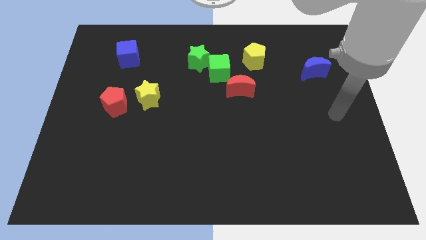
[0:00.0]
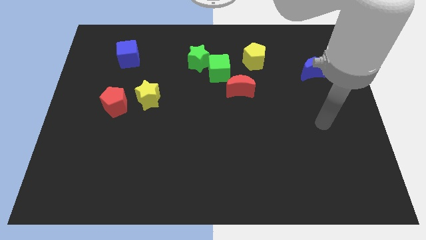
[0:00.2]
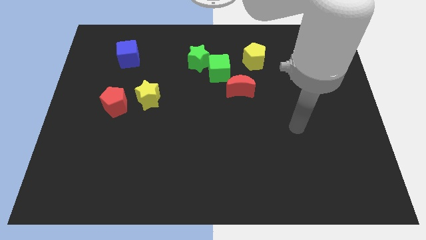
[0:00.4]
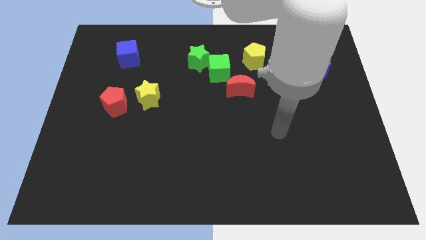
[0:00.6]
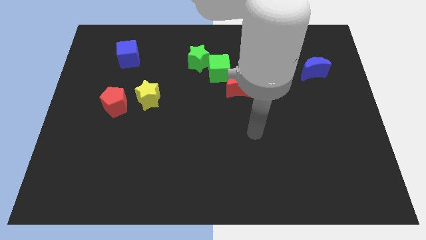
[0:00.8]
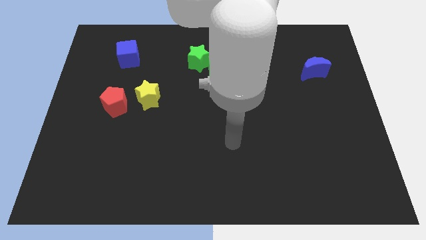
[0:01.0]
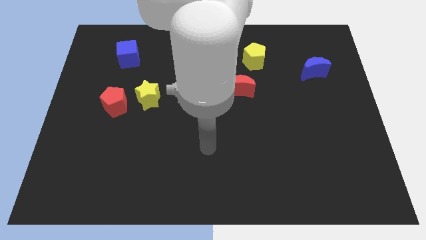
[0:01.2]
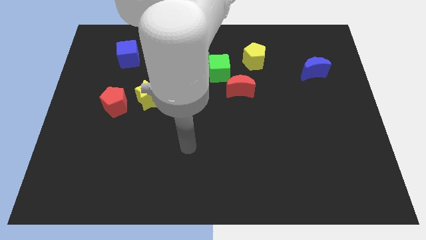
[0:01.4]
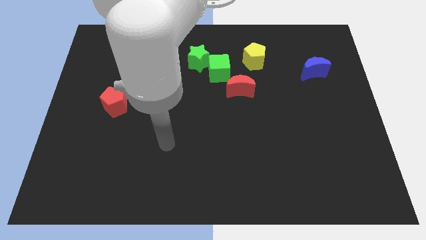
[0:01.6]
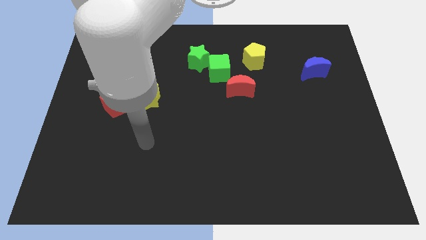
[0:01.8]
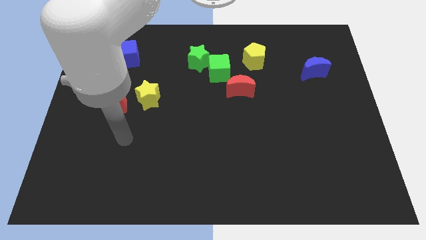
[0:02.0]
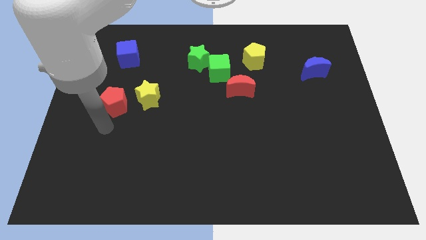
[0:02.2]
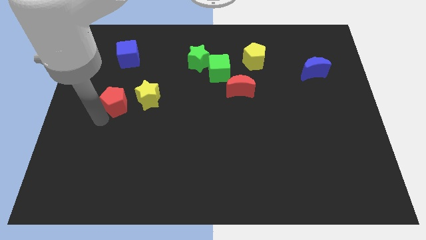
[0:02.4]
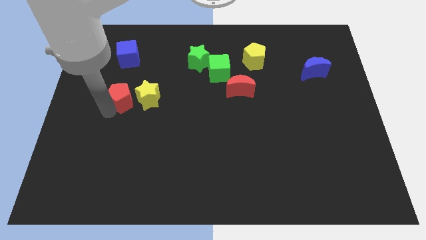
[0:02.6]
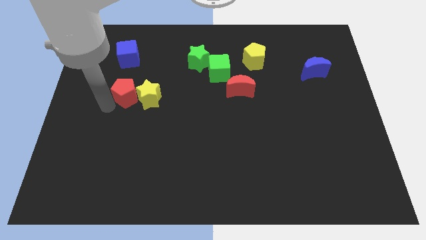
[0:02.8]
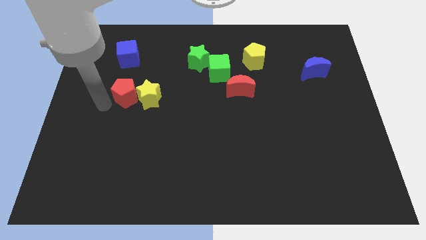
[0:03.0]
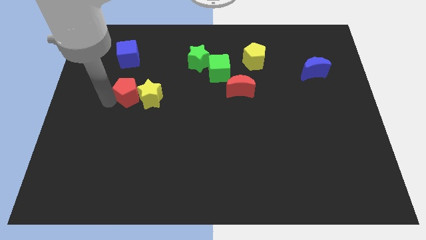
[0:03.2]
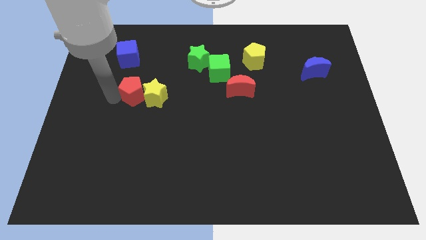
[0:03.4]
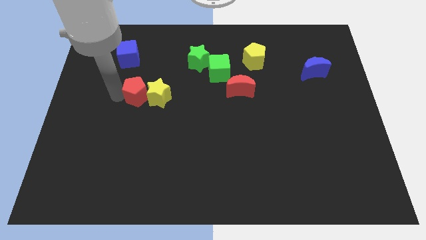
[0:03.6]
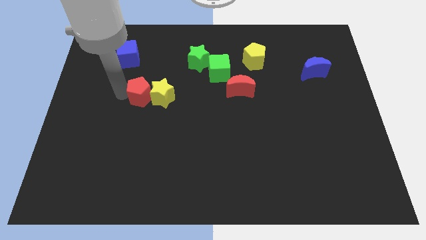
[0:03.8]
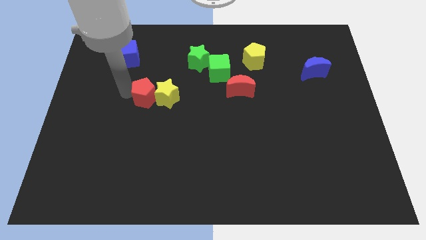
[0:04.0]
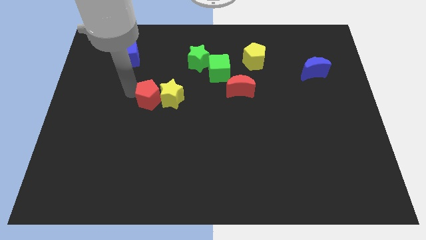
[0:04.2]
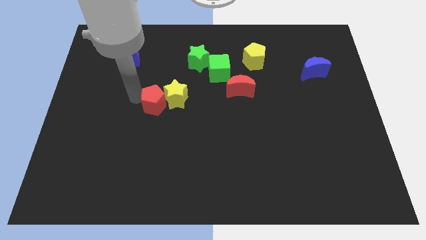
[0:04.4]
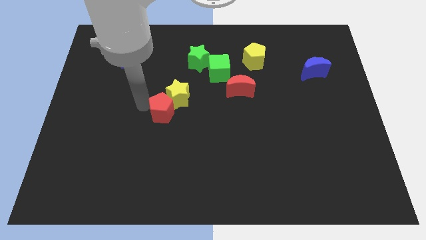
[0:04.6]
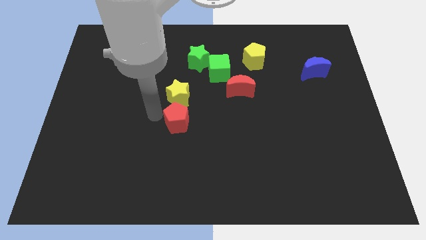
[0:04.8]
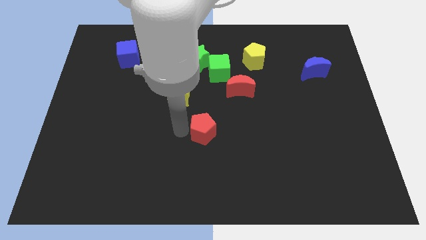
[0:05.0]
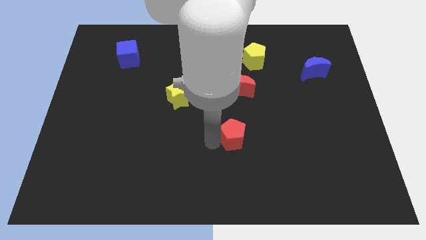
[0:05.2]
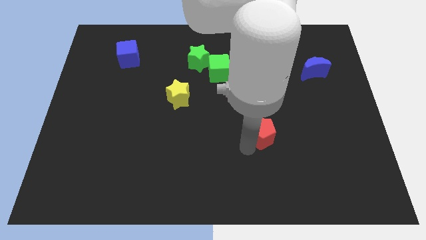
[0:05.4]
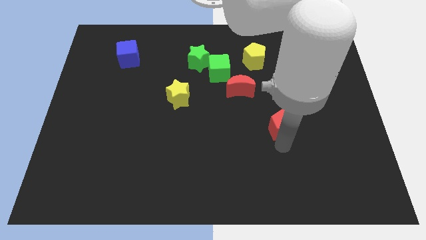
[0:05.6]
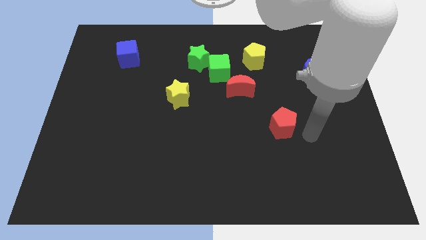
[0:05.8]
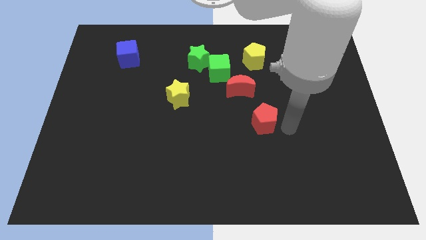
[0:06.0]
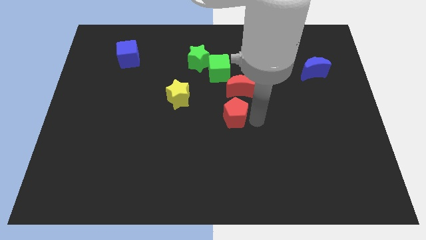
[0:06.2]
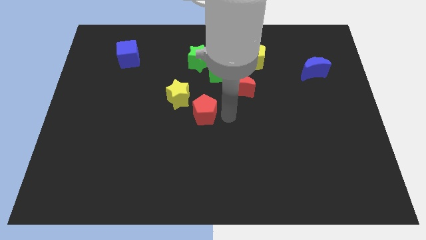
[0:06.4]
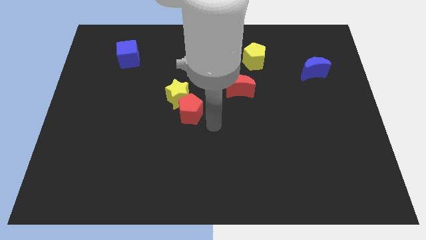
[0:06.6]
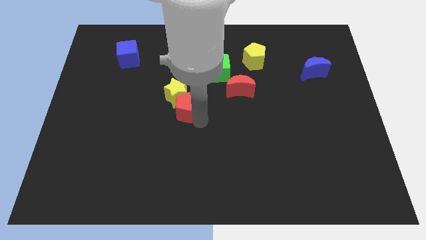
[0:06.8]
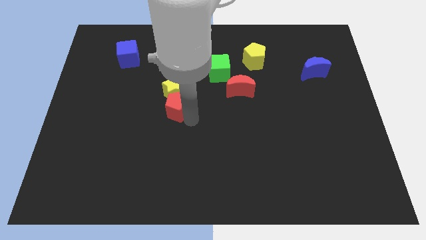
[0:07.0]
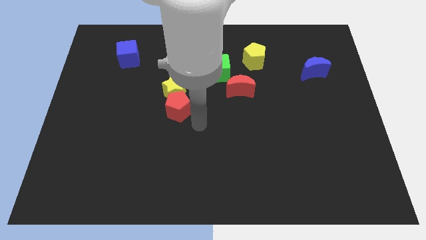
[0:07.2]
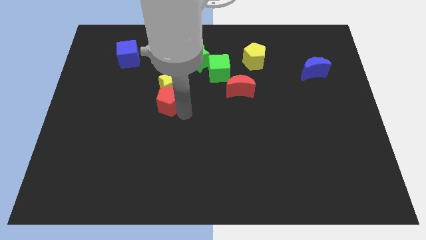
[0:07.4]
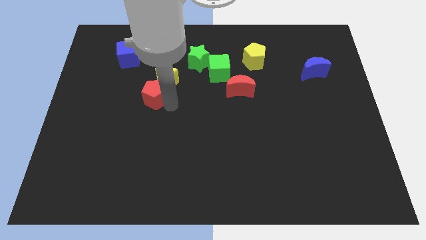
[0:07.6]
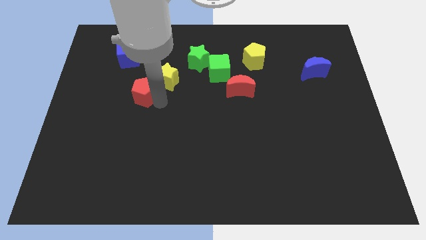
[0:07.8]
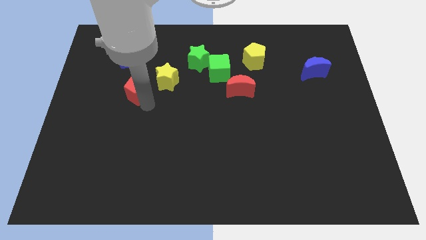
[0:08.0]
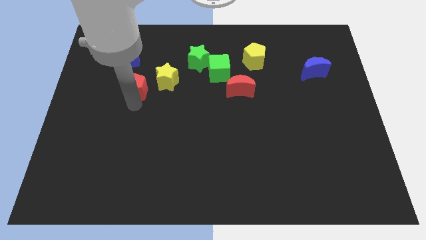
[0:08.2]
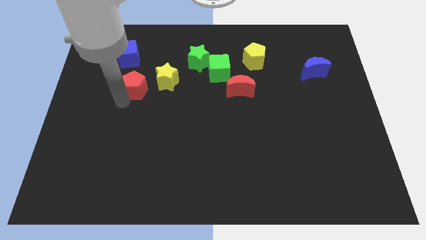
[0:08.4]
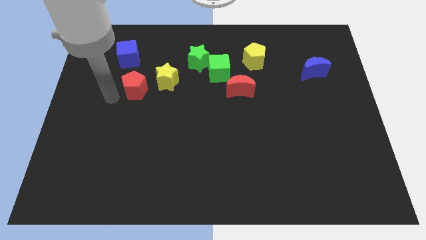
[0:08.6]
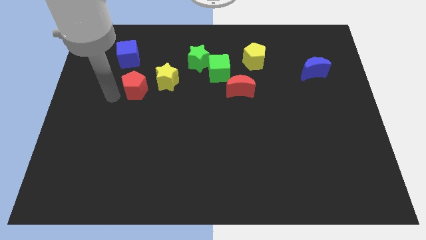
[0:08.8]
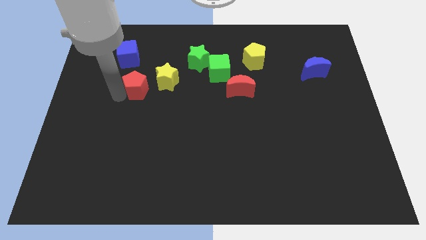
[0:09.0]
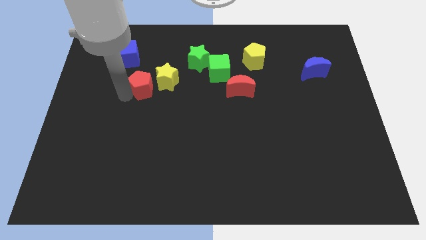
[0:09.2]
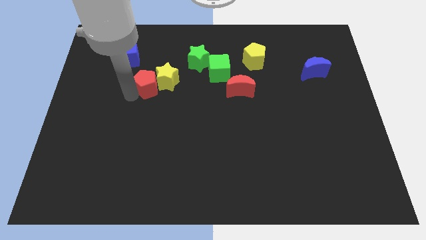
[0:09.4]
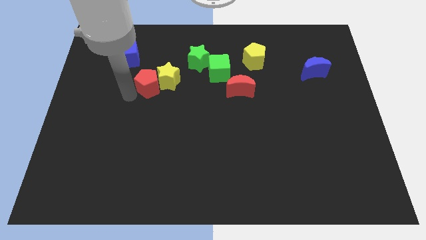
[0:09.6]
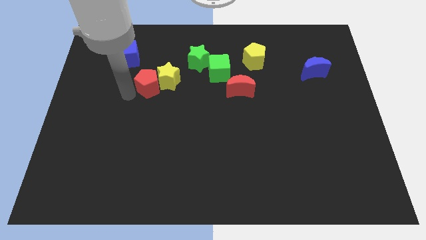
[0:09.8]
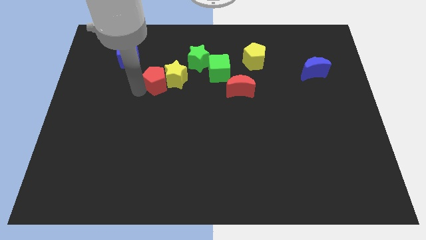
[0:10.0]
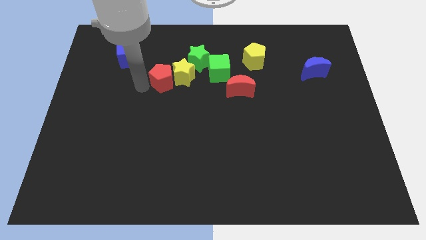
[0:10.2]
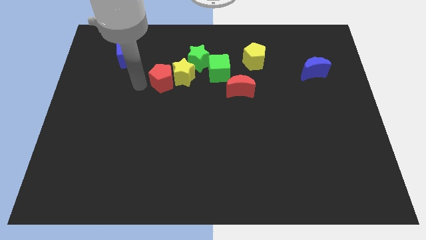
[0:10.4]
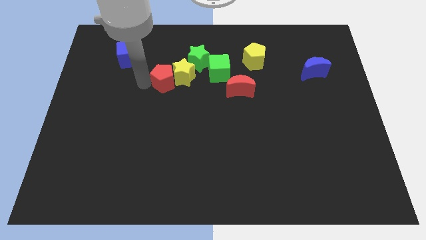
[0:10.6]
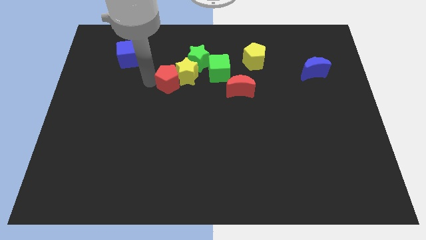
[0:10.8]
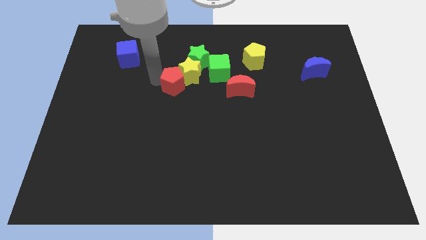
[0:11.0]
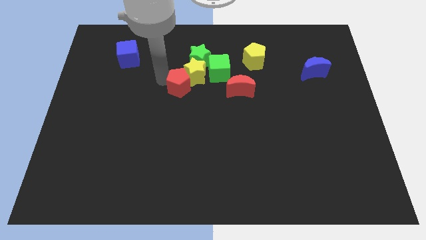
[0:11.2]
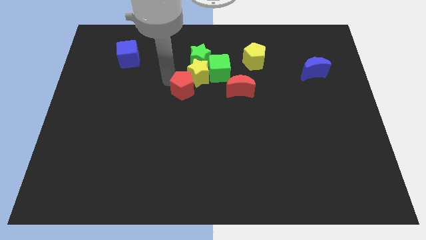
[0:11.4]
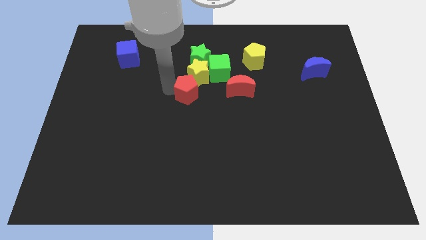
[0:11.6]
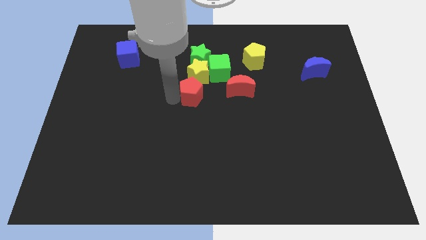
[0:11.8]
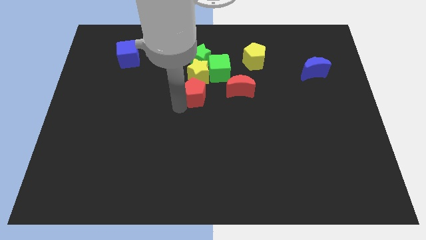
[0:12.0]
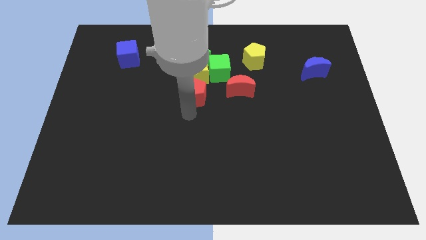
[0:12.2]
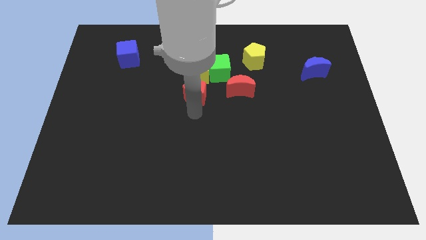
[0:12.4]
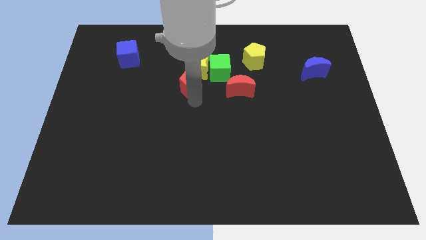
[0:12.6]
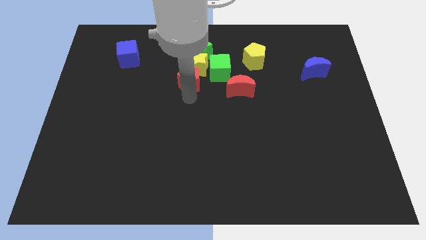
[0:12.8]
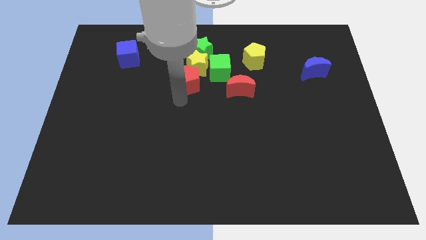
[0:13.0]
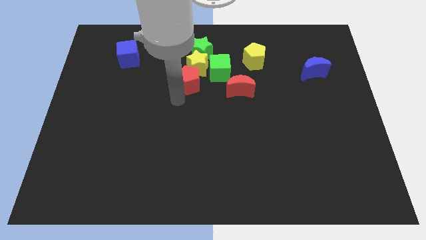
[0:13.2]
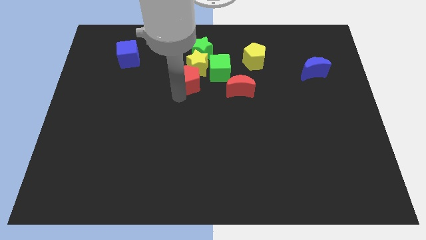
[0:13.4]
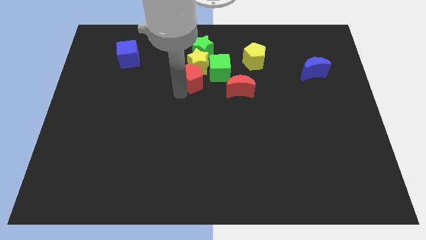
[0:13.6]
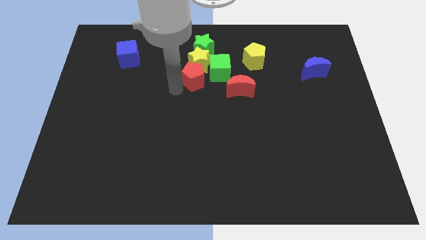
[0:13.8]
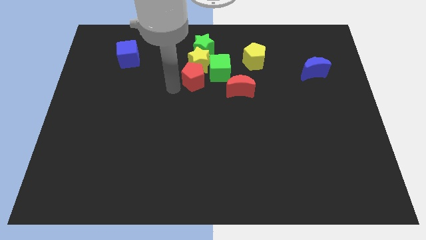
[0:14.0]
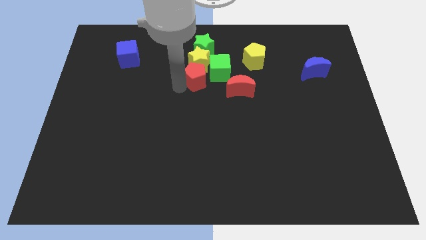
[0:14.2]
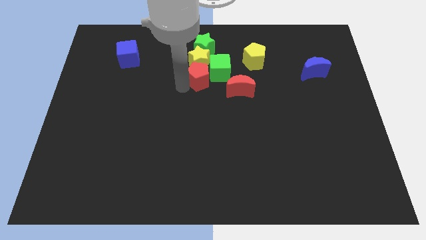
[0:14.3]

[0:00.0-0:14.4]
put the red pentagon close to the green cube
